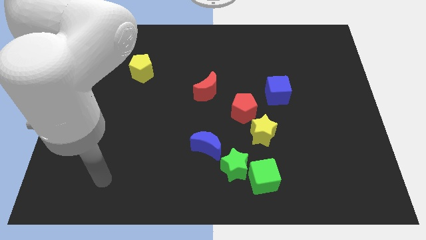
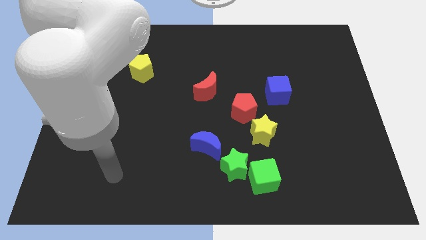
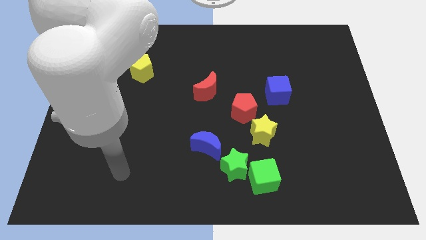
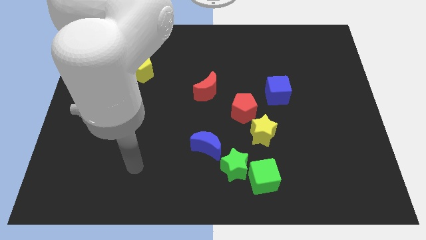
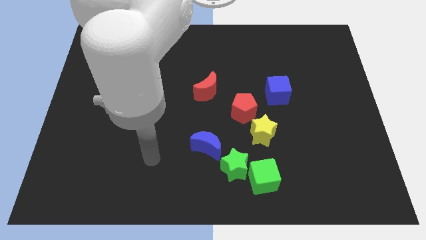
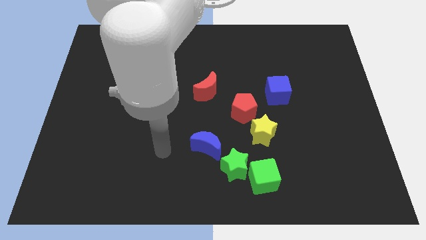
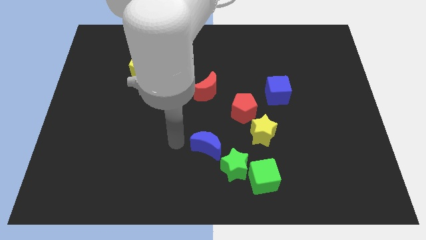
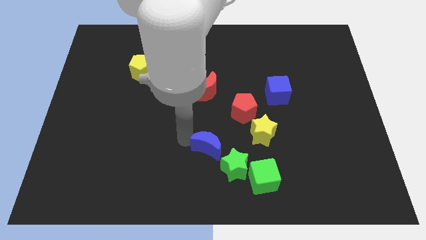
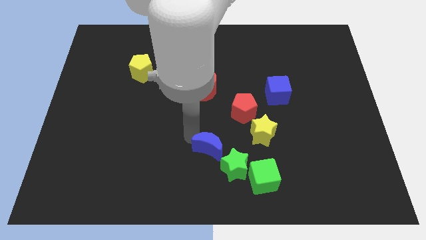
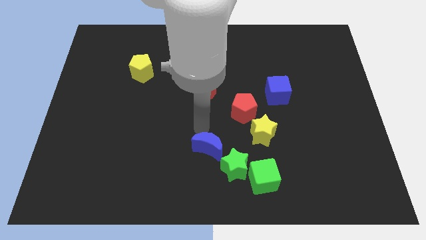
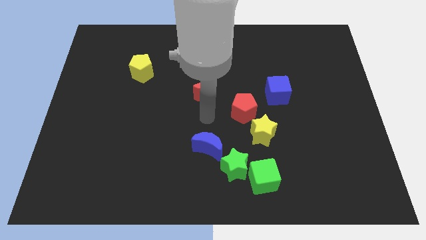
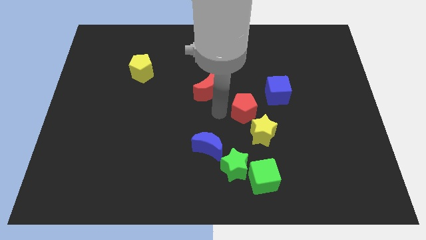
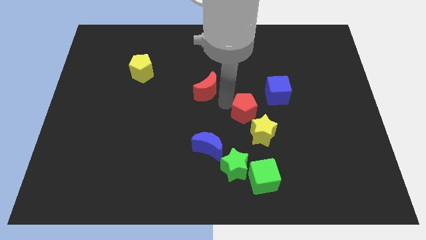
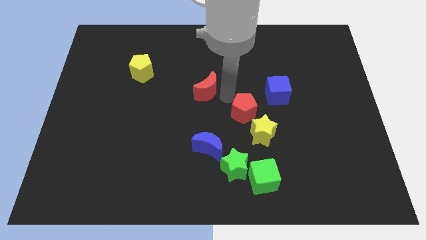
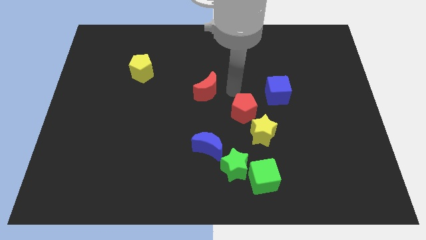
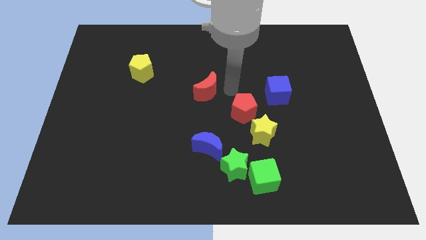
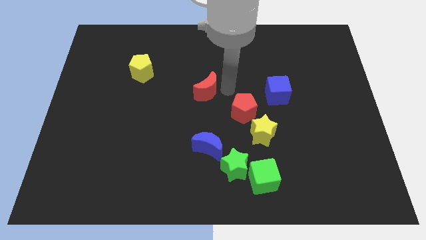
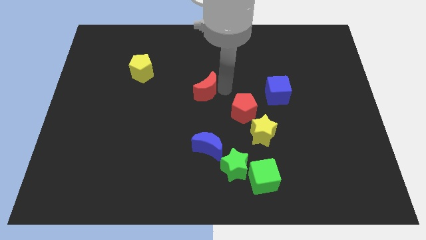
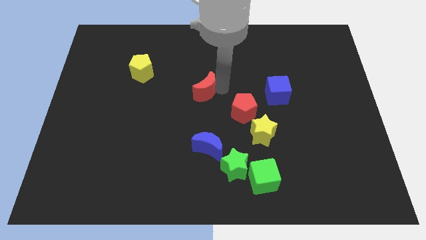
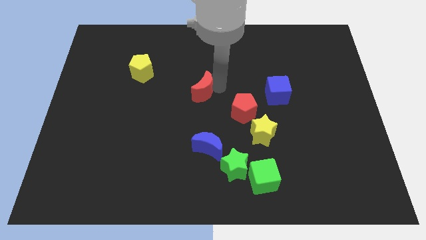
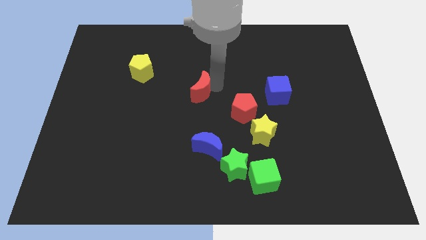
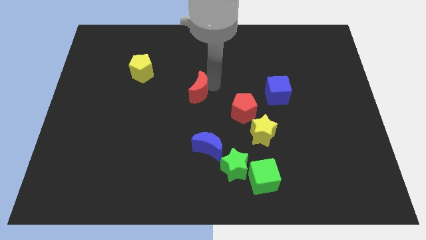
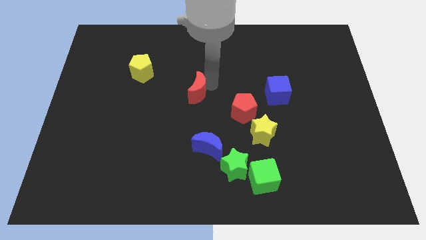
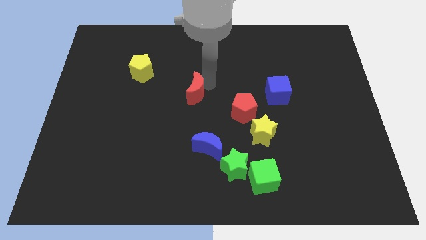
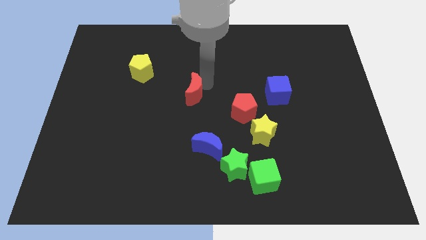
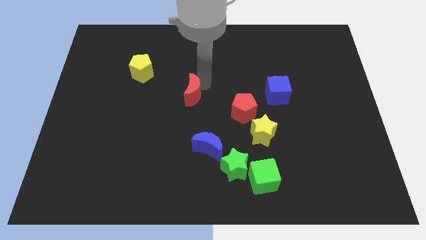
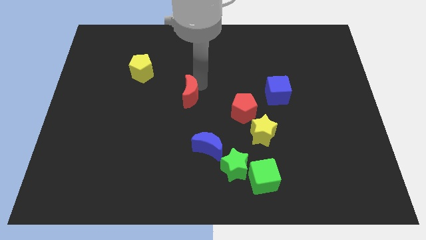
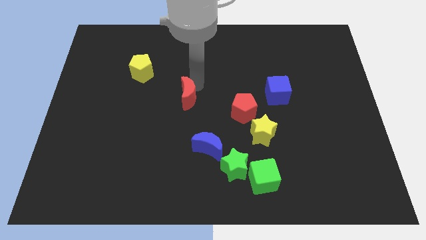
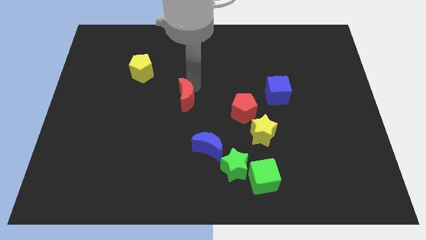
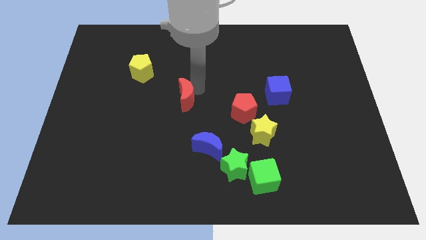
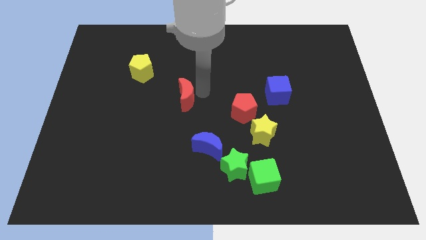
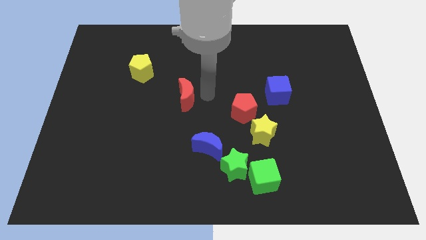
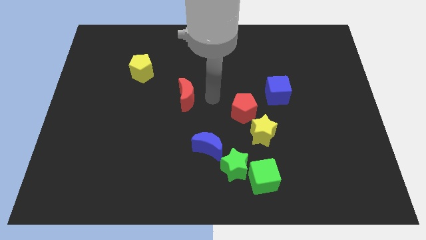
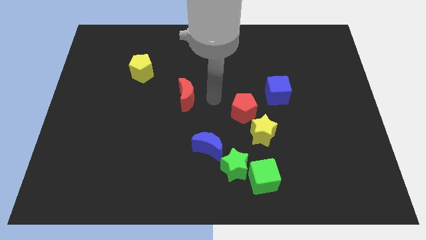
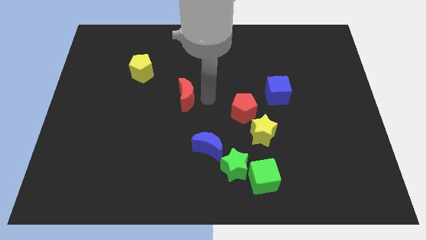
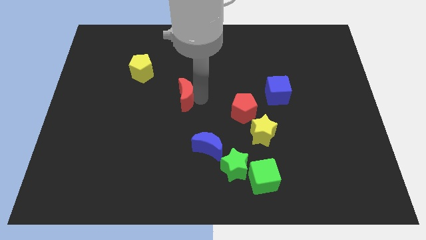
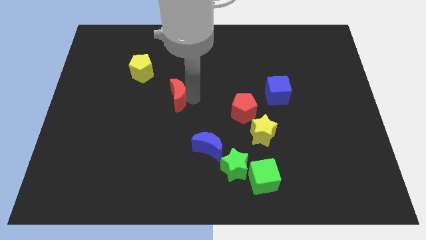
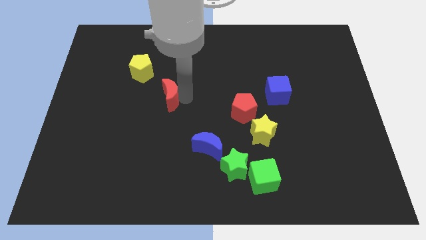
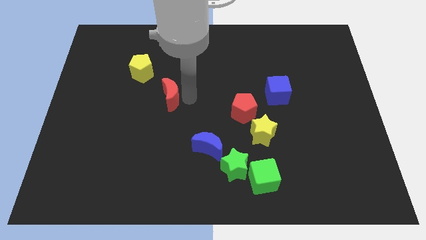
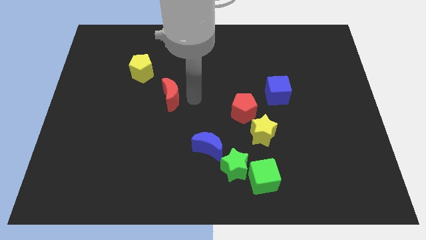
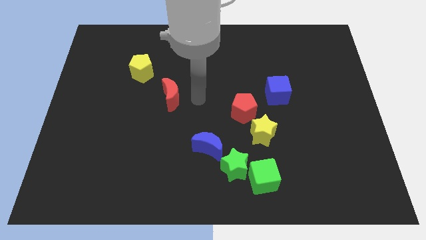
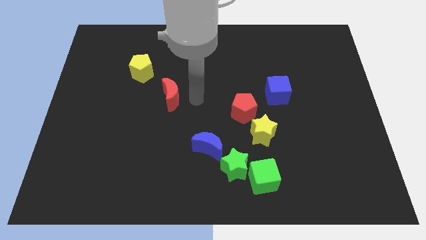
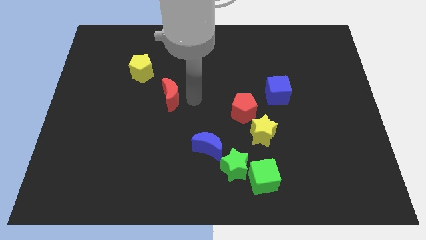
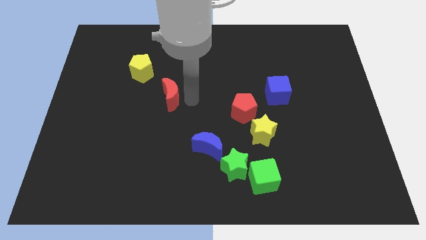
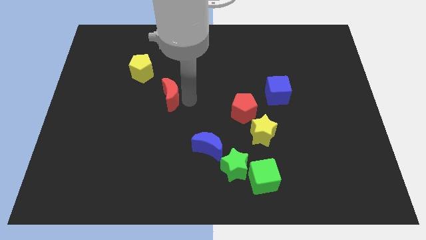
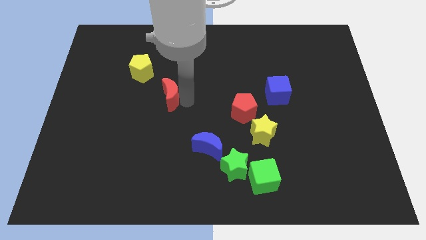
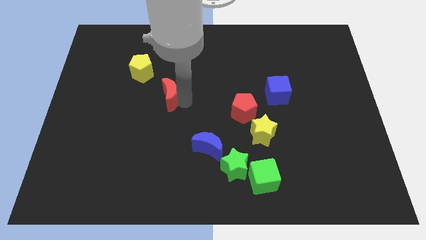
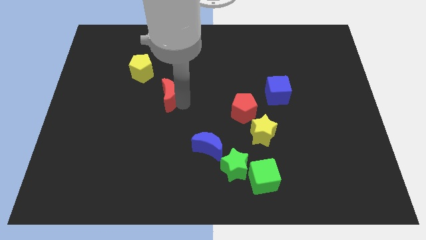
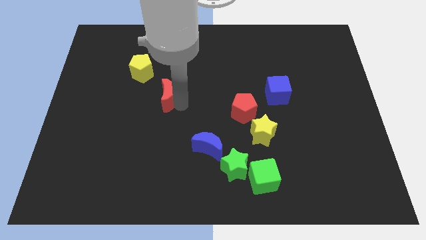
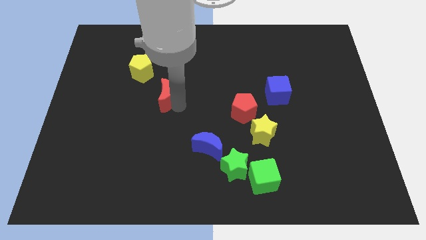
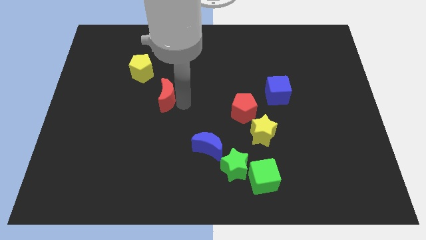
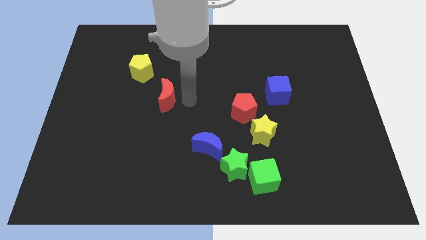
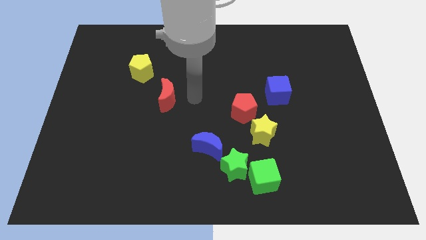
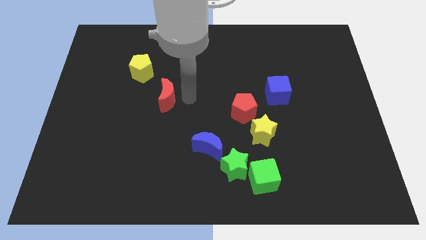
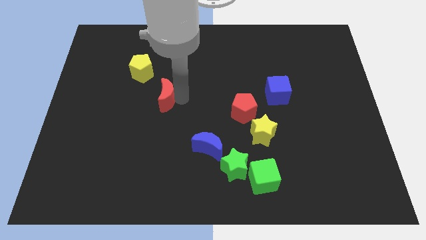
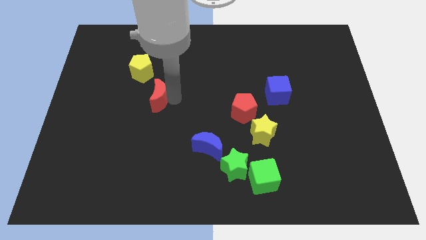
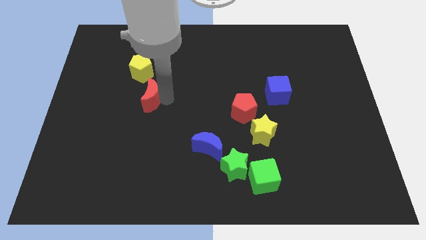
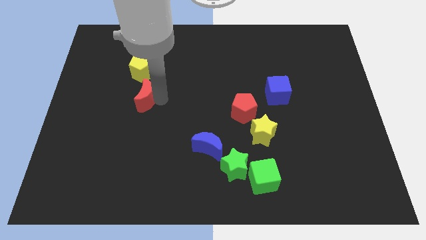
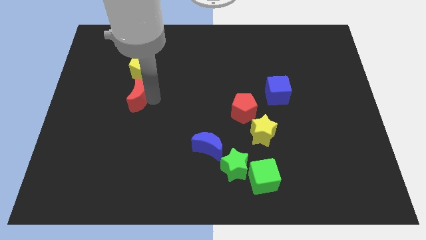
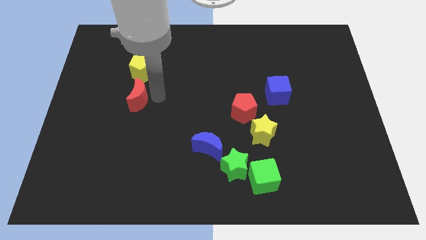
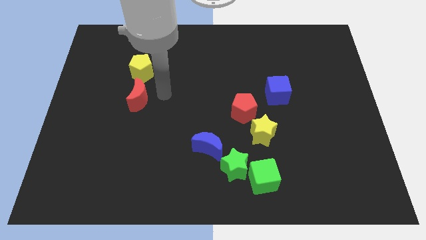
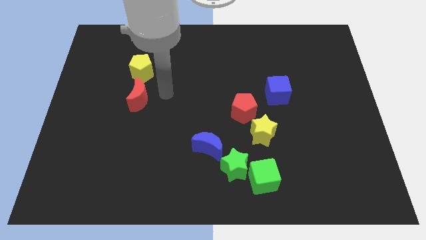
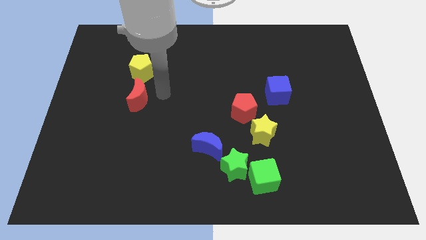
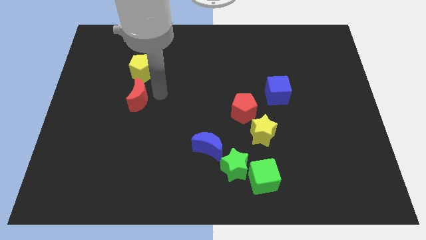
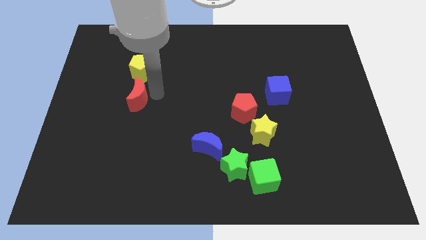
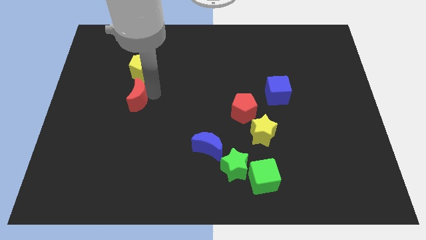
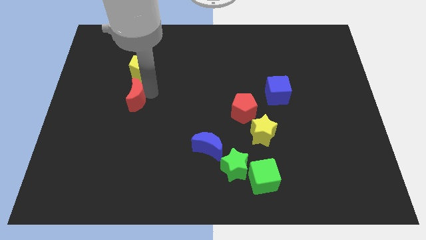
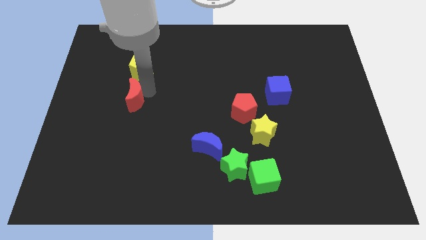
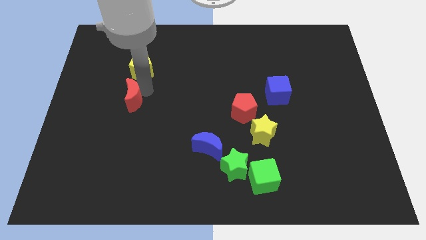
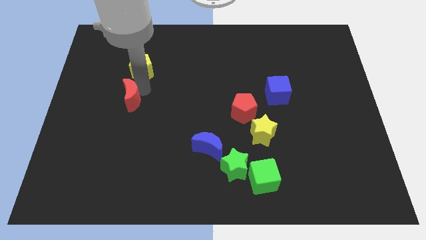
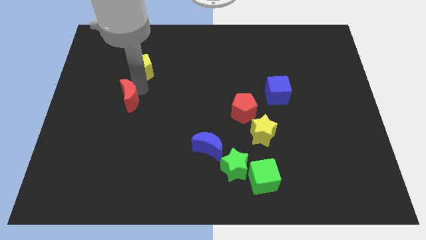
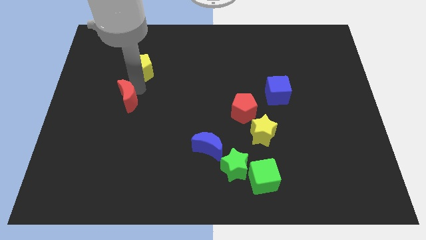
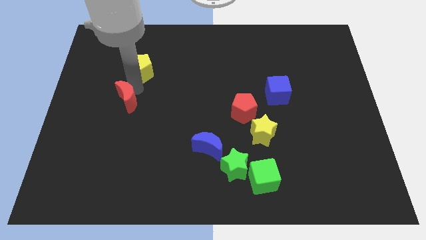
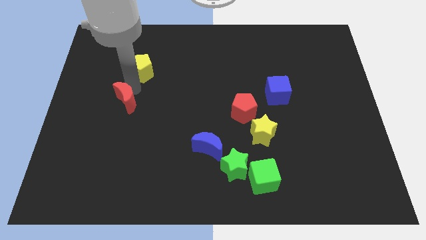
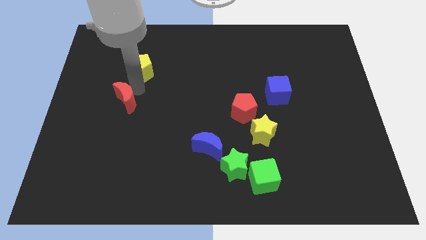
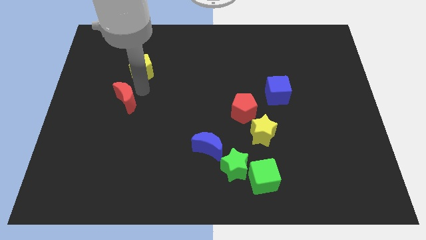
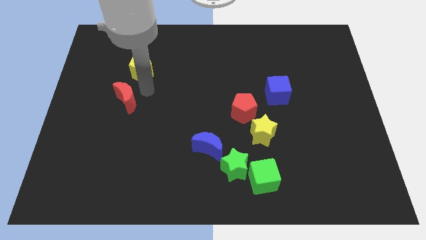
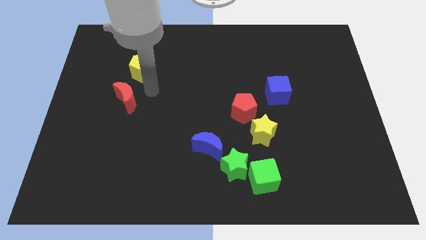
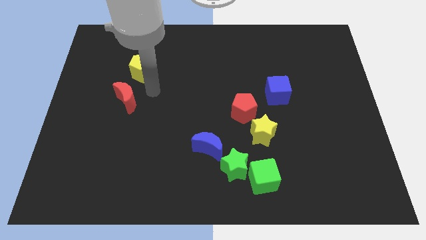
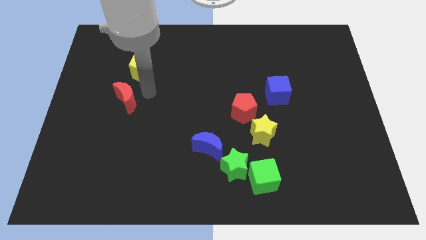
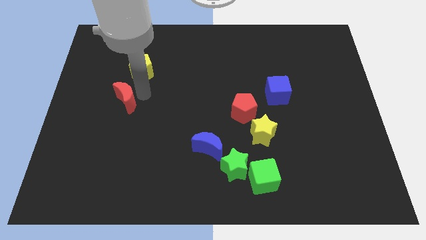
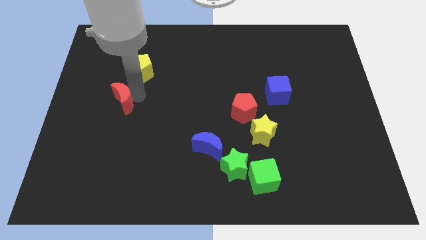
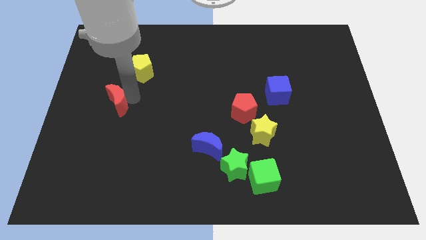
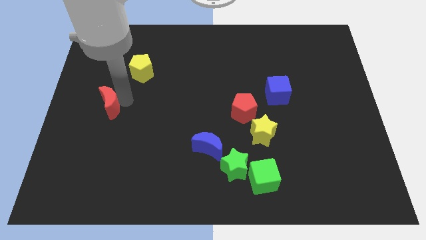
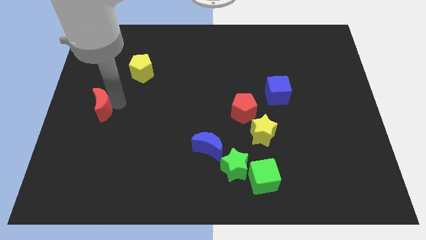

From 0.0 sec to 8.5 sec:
slide the red moon to the left side of the board
